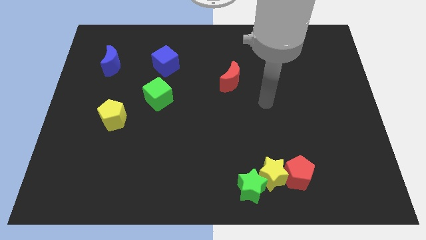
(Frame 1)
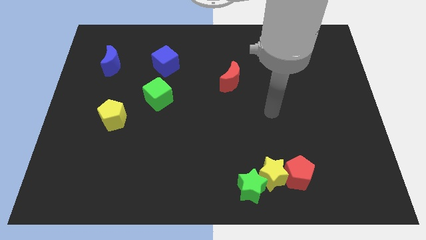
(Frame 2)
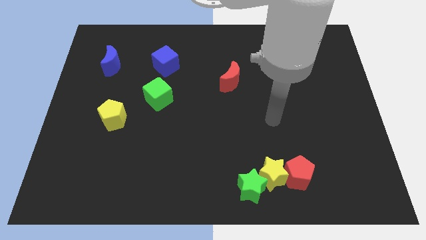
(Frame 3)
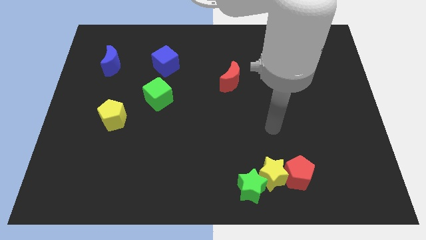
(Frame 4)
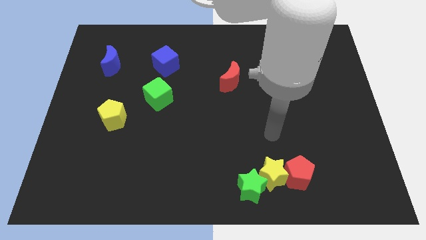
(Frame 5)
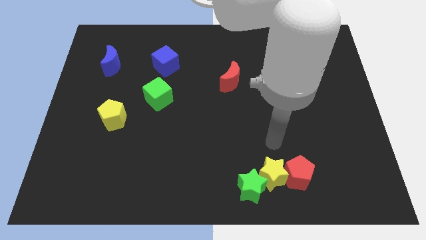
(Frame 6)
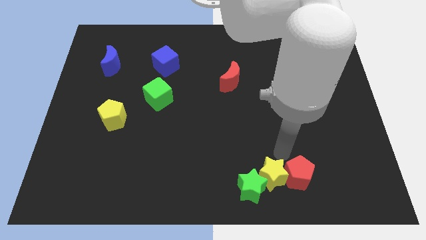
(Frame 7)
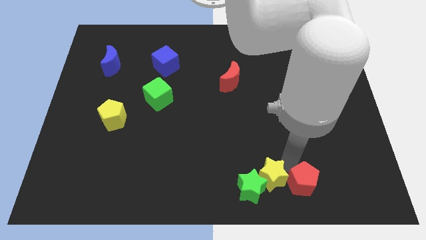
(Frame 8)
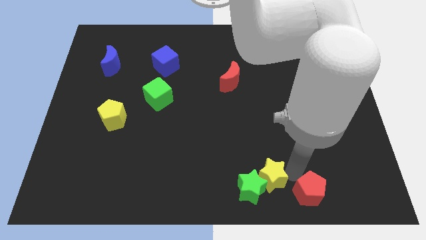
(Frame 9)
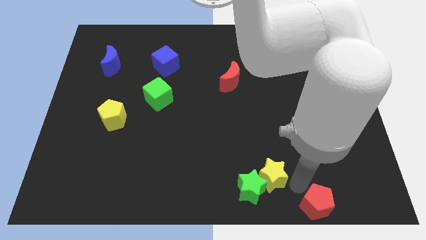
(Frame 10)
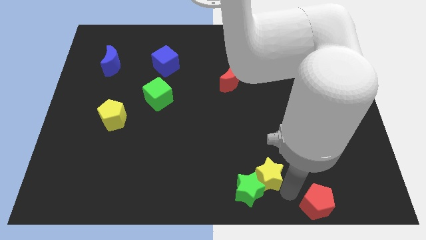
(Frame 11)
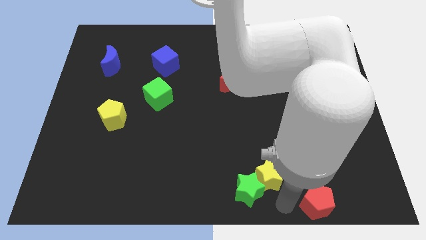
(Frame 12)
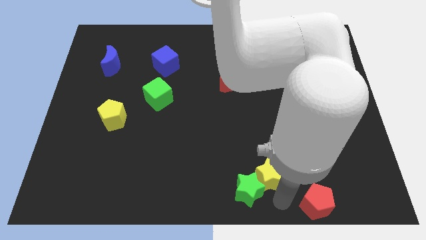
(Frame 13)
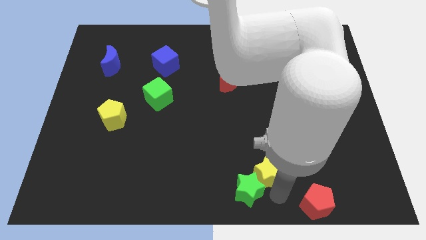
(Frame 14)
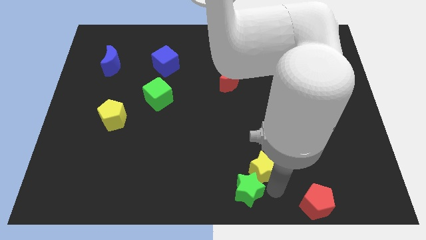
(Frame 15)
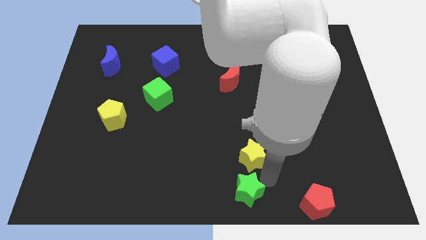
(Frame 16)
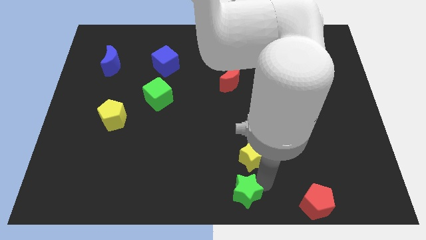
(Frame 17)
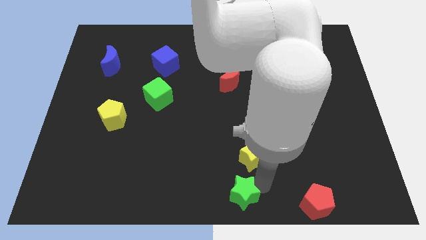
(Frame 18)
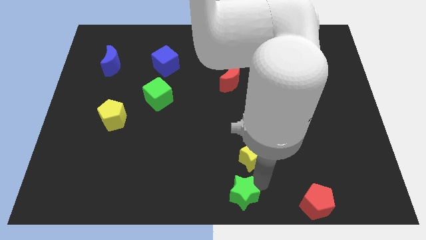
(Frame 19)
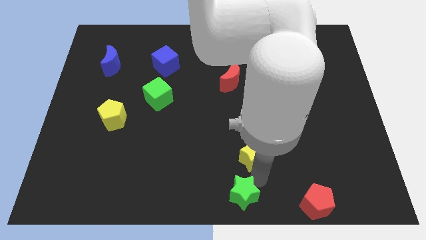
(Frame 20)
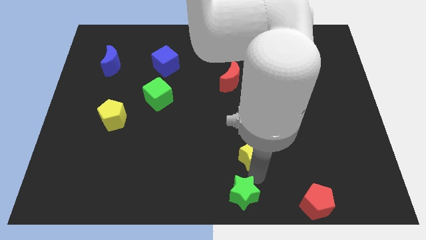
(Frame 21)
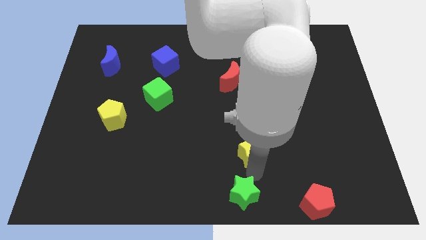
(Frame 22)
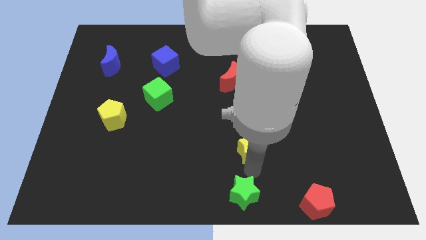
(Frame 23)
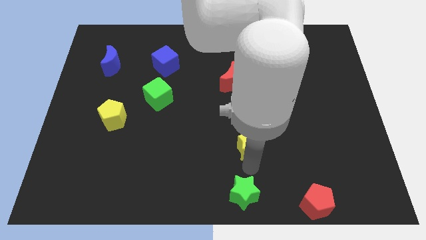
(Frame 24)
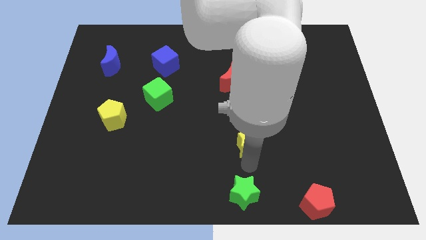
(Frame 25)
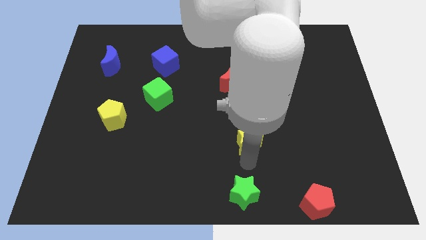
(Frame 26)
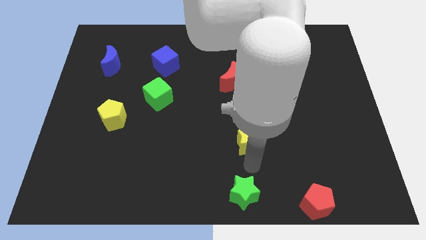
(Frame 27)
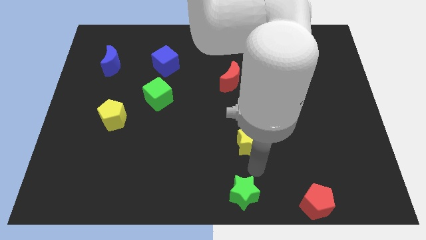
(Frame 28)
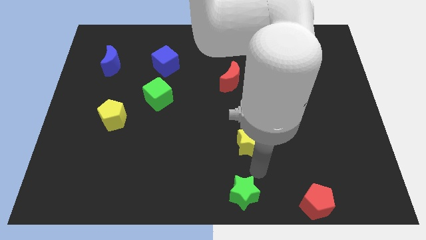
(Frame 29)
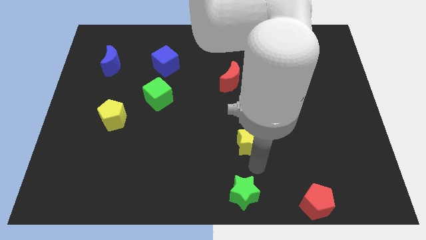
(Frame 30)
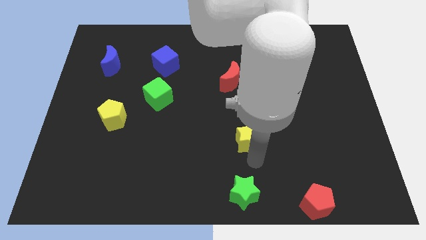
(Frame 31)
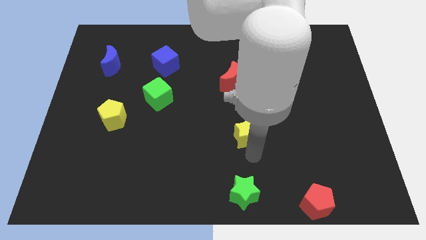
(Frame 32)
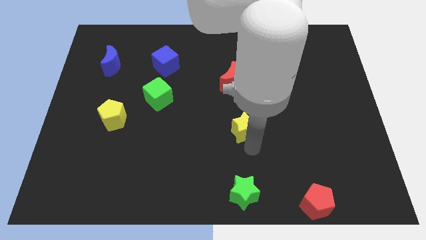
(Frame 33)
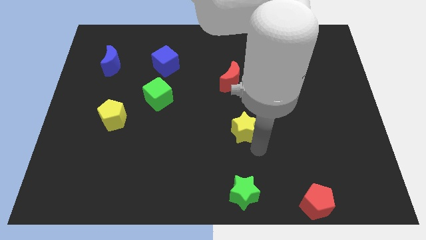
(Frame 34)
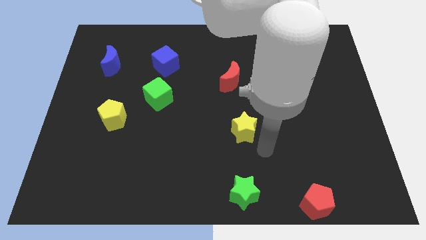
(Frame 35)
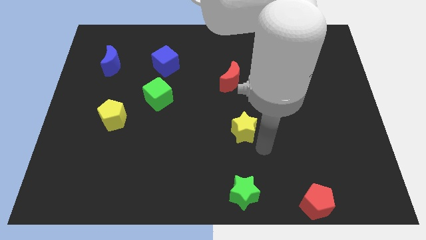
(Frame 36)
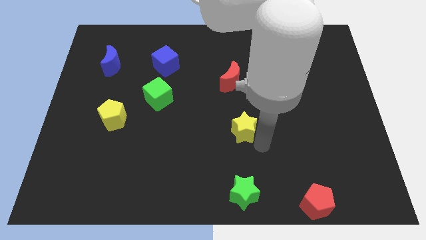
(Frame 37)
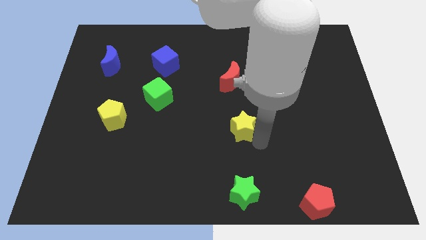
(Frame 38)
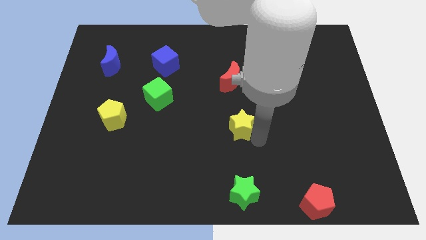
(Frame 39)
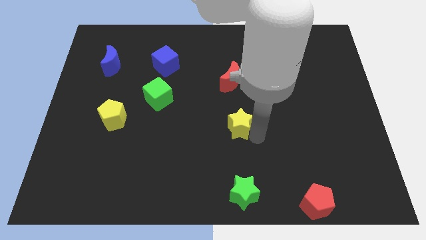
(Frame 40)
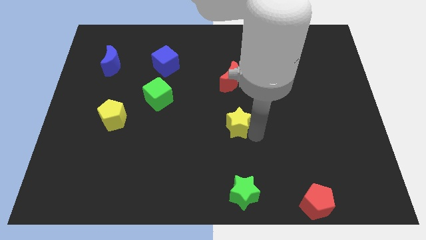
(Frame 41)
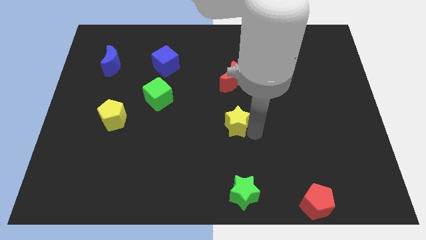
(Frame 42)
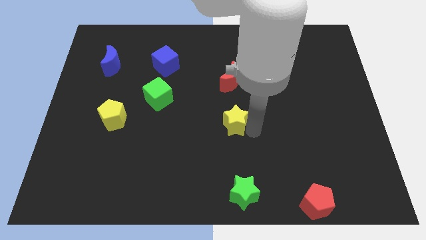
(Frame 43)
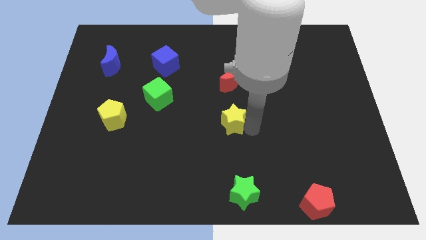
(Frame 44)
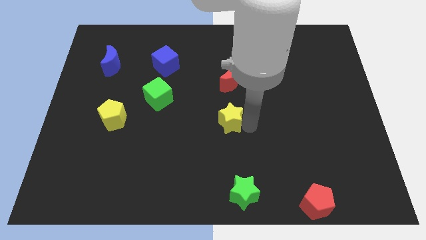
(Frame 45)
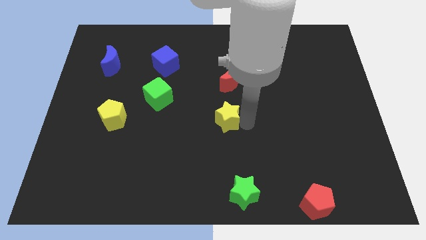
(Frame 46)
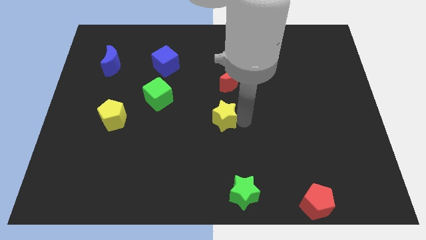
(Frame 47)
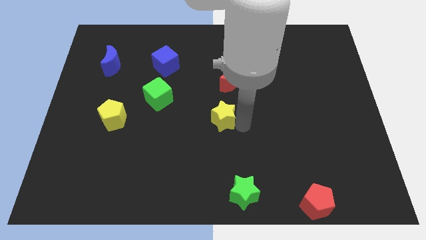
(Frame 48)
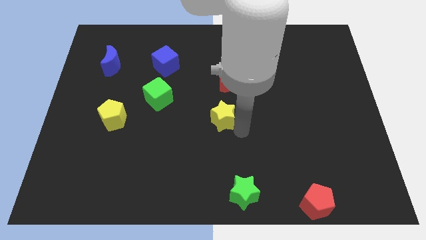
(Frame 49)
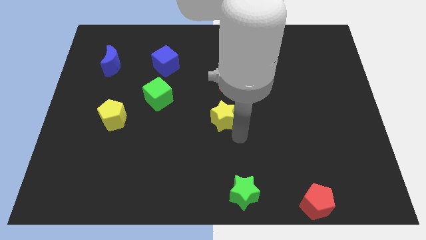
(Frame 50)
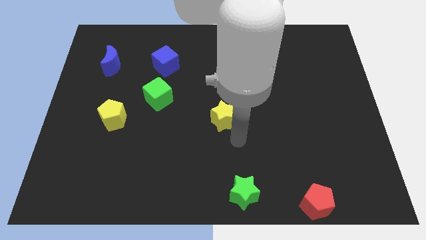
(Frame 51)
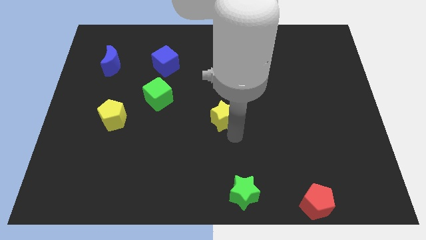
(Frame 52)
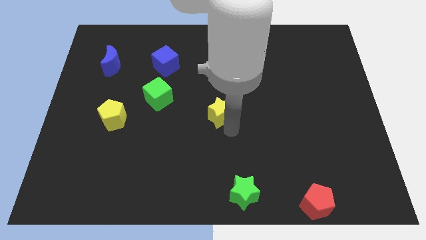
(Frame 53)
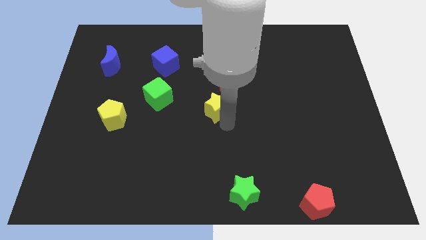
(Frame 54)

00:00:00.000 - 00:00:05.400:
put the yellow star to the bottom left side of the red moon

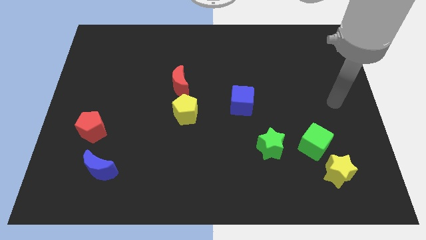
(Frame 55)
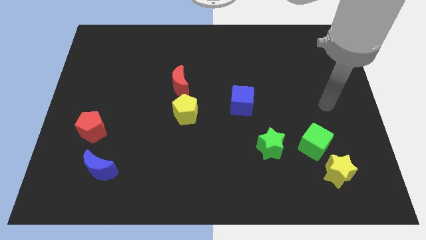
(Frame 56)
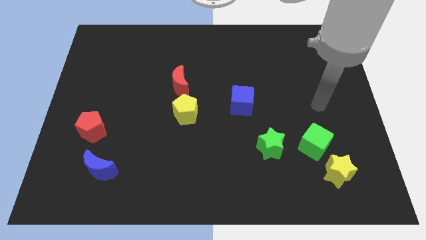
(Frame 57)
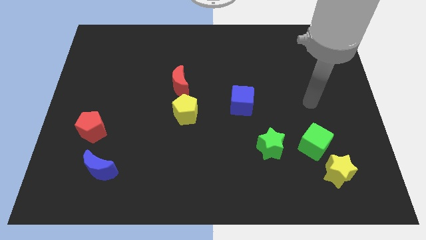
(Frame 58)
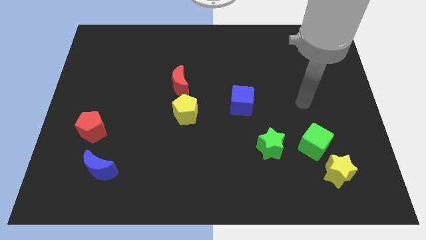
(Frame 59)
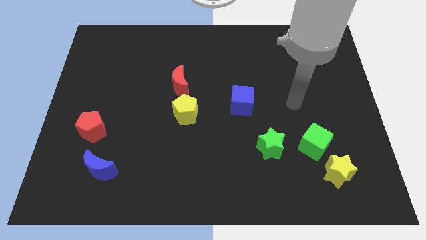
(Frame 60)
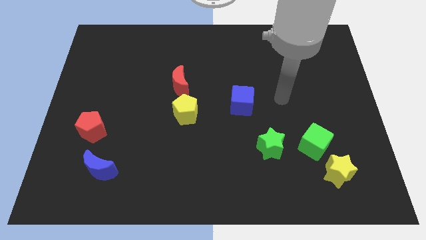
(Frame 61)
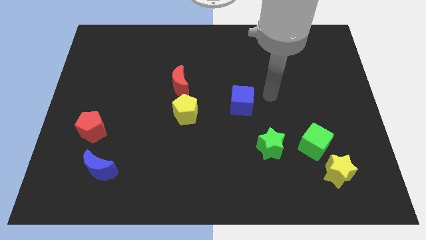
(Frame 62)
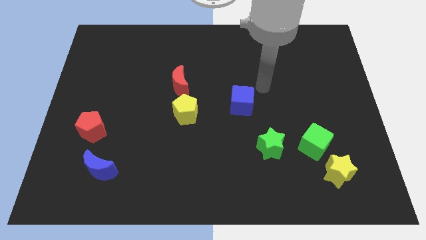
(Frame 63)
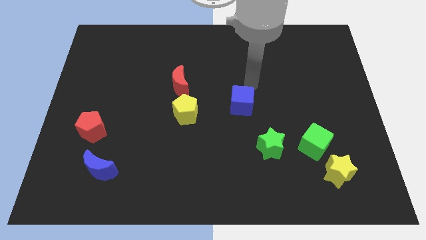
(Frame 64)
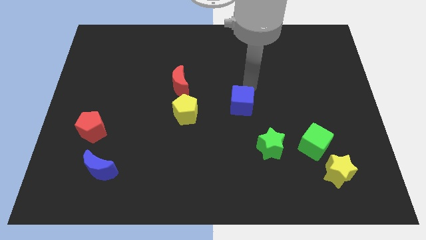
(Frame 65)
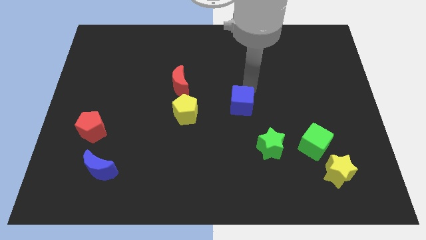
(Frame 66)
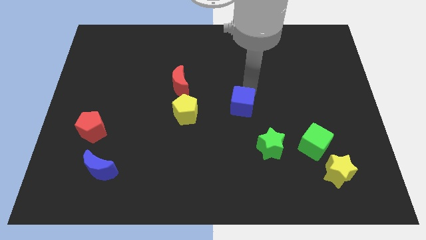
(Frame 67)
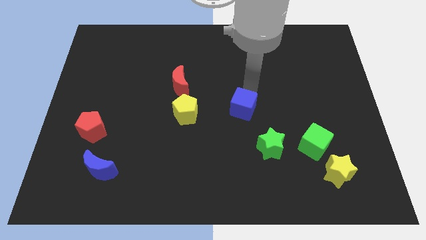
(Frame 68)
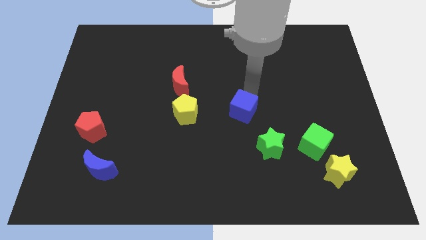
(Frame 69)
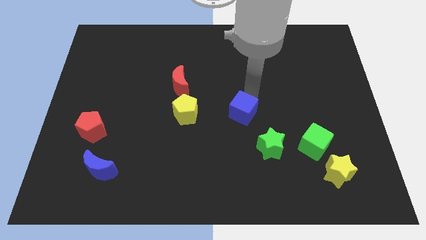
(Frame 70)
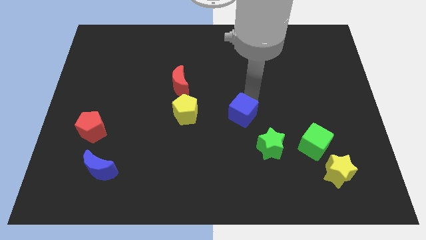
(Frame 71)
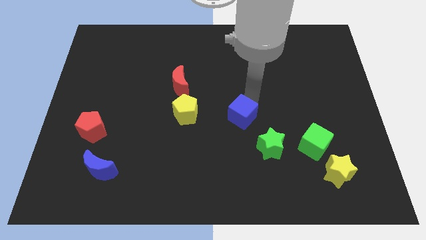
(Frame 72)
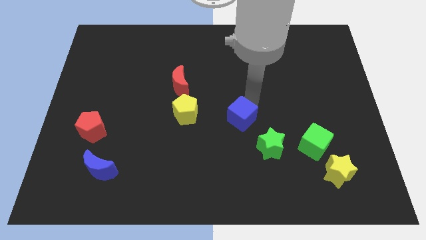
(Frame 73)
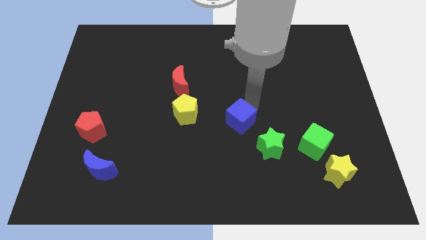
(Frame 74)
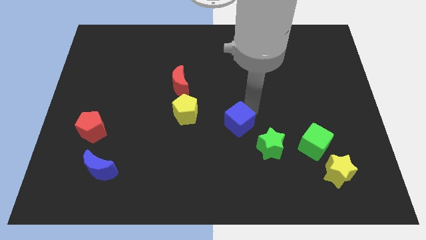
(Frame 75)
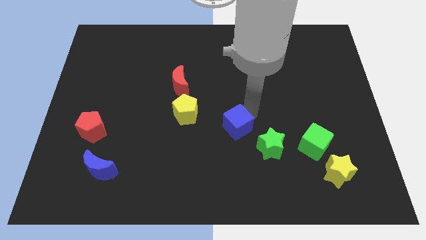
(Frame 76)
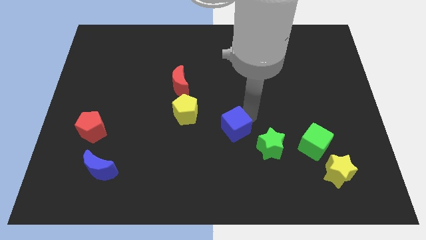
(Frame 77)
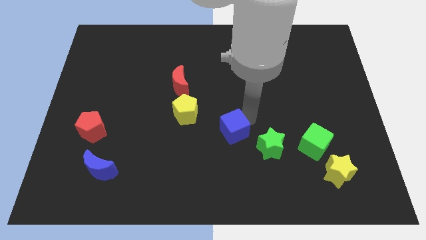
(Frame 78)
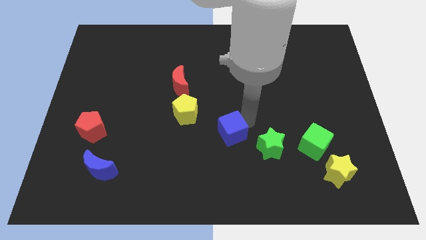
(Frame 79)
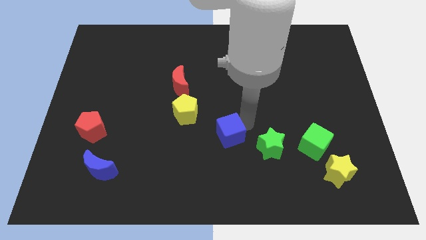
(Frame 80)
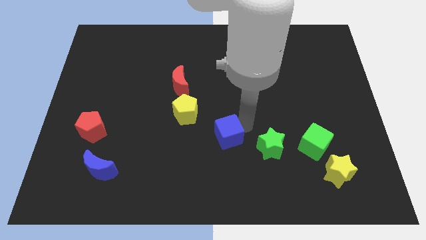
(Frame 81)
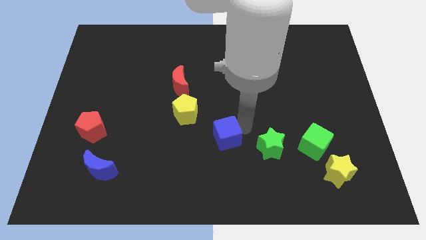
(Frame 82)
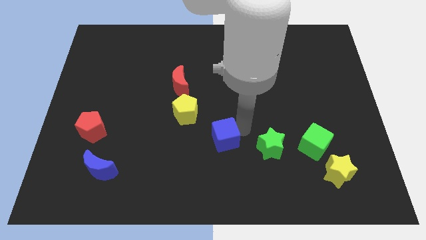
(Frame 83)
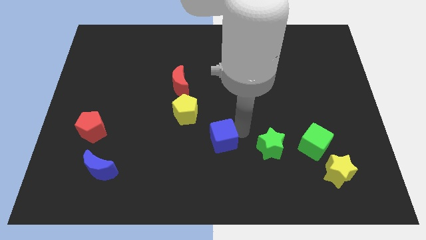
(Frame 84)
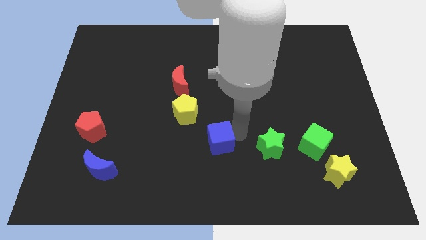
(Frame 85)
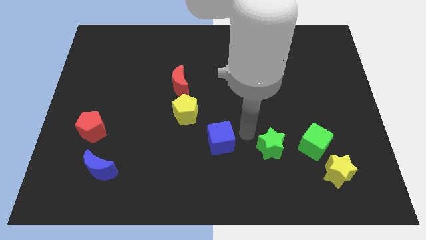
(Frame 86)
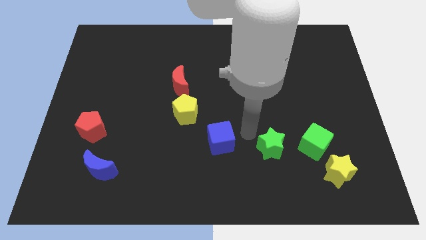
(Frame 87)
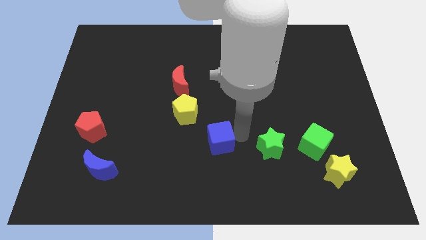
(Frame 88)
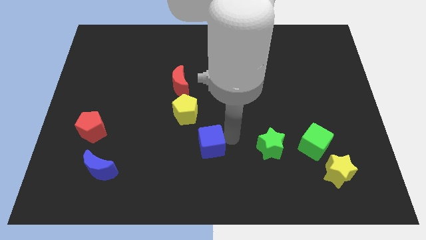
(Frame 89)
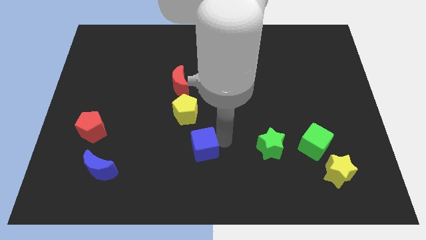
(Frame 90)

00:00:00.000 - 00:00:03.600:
put the blue cube to the bottom of the yellow pentagon
